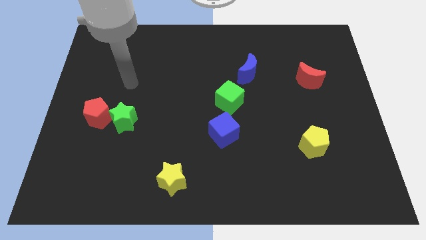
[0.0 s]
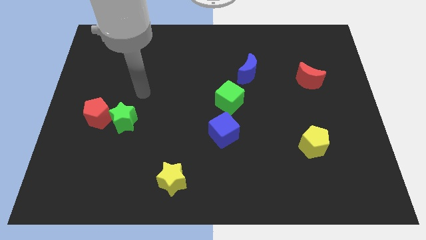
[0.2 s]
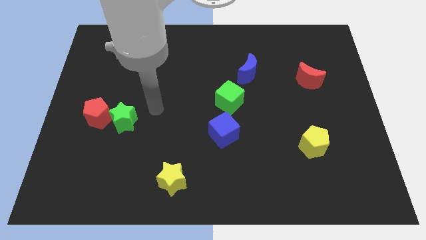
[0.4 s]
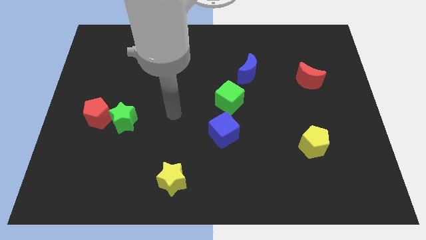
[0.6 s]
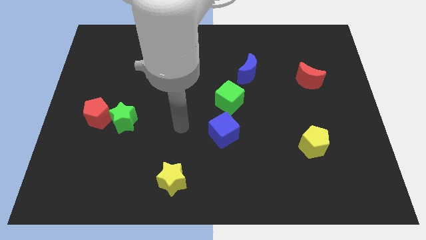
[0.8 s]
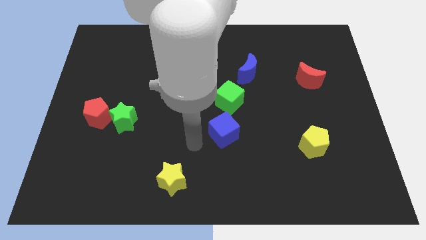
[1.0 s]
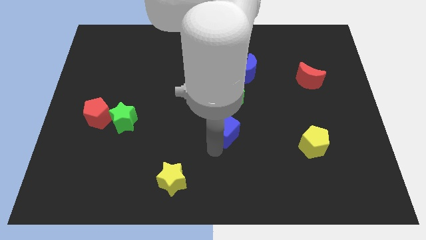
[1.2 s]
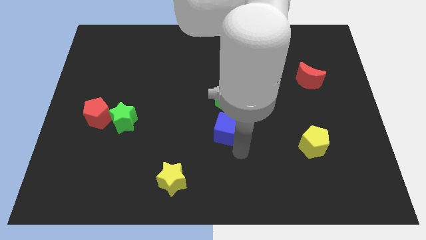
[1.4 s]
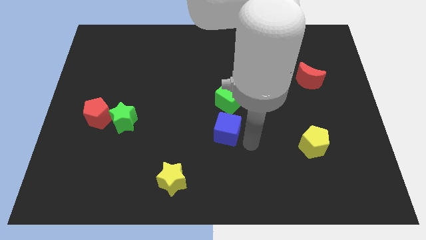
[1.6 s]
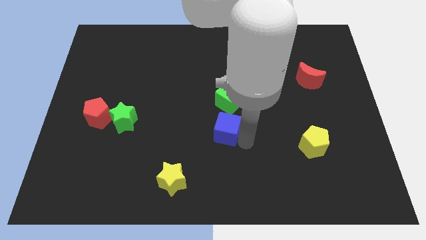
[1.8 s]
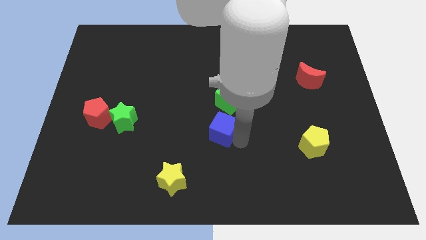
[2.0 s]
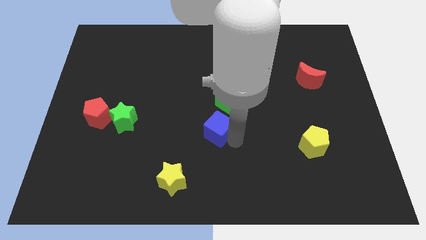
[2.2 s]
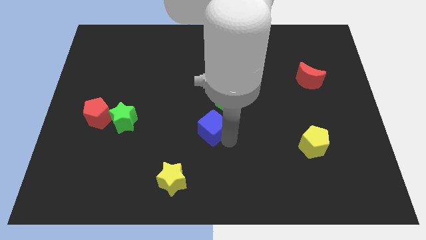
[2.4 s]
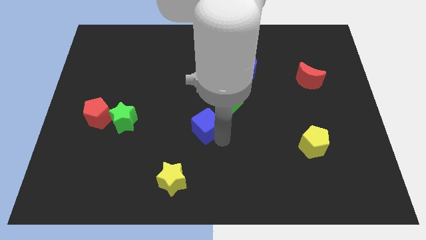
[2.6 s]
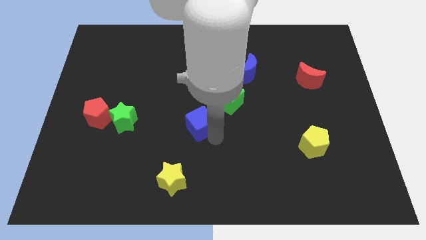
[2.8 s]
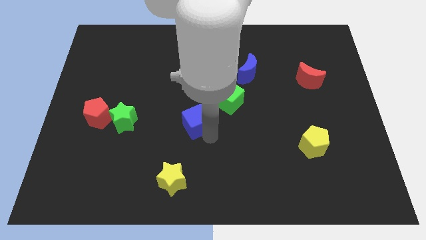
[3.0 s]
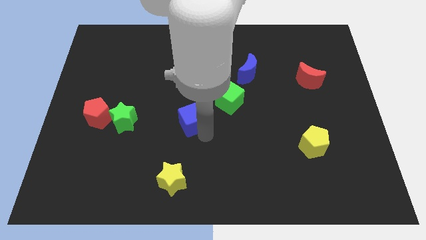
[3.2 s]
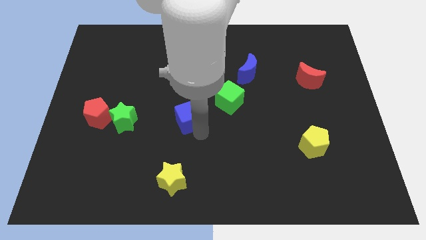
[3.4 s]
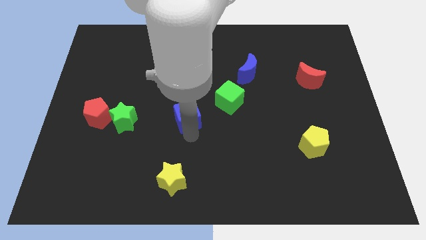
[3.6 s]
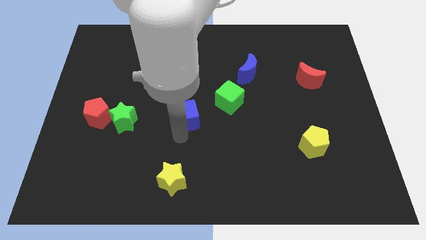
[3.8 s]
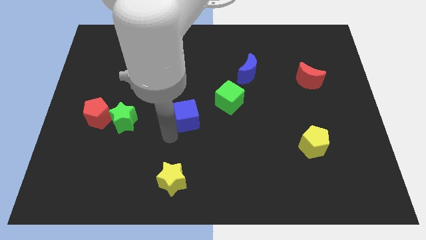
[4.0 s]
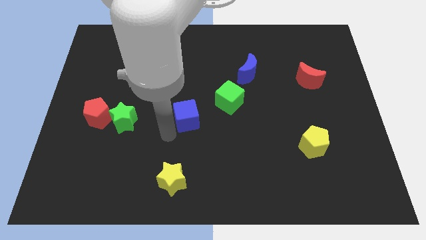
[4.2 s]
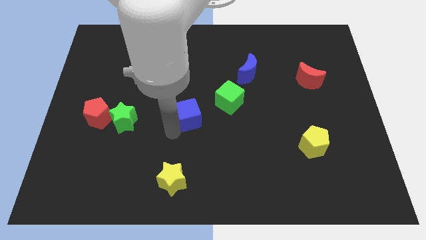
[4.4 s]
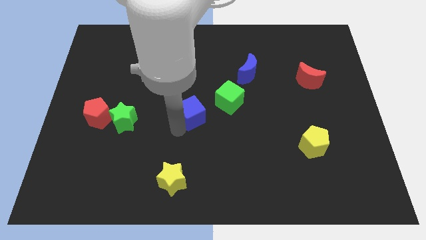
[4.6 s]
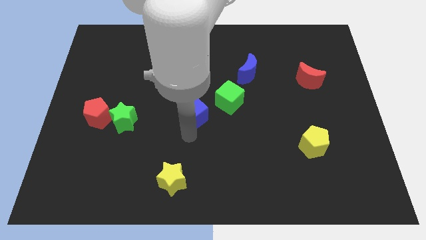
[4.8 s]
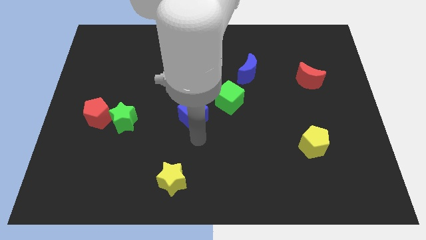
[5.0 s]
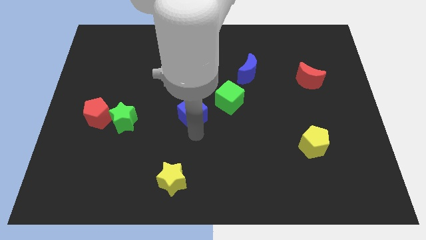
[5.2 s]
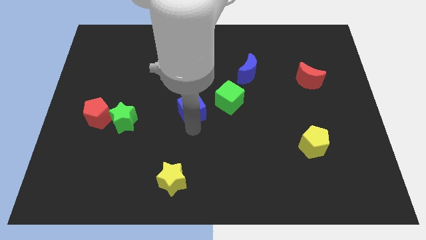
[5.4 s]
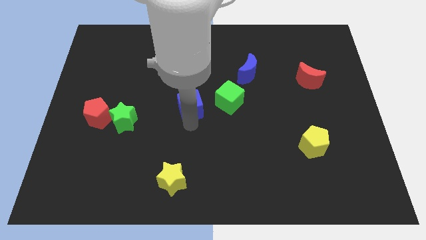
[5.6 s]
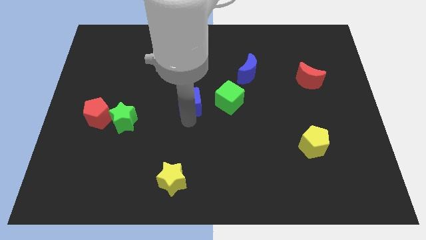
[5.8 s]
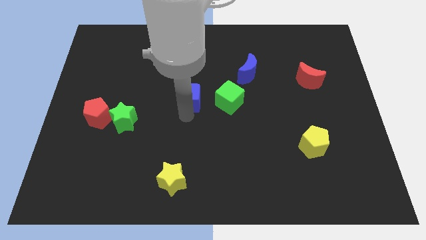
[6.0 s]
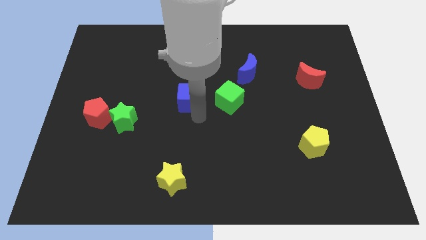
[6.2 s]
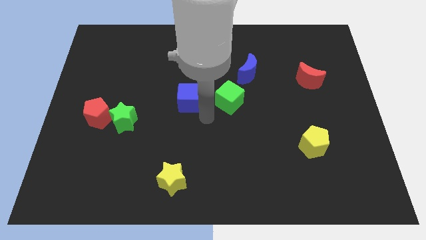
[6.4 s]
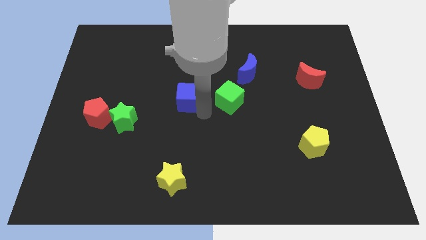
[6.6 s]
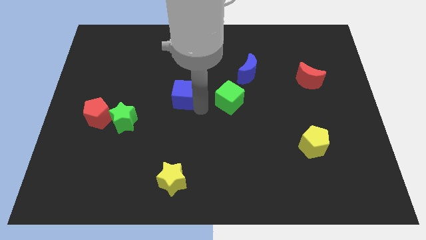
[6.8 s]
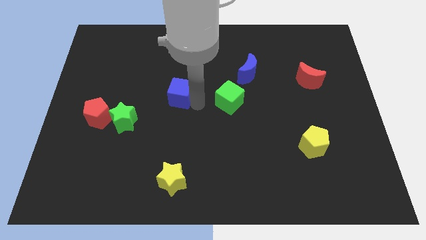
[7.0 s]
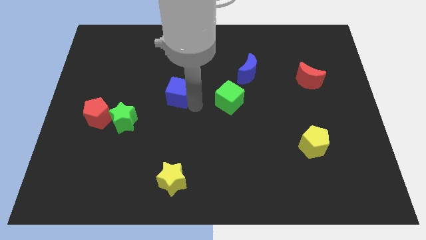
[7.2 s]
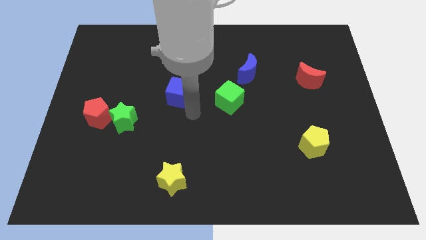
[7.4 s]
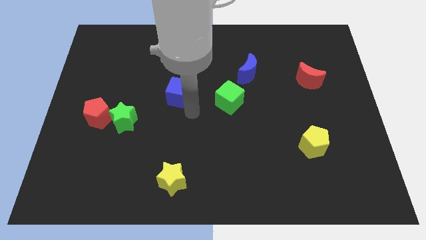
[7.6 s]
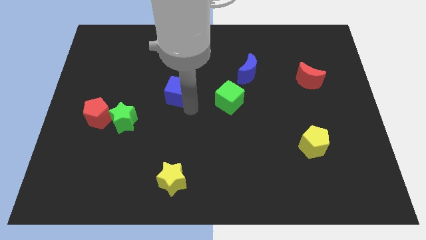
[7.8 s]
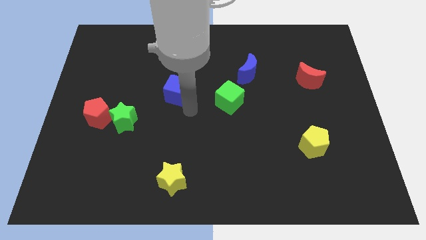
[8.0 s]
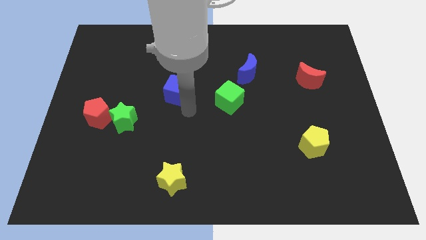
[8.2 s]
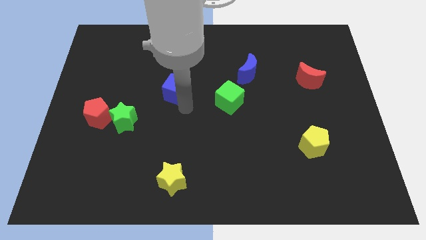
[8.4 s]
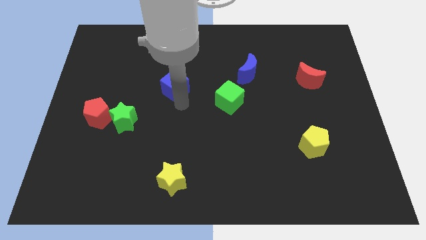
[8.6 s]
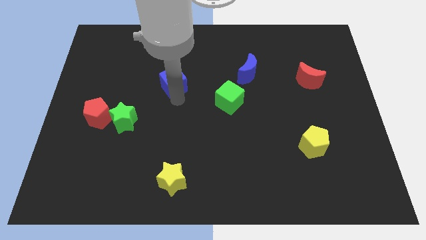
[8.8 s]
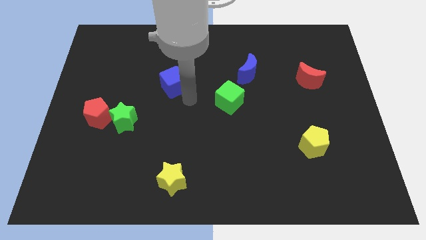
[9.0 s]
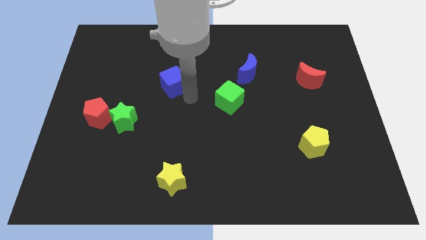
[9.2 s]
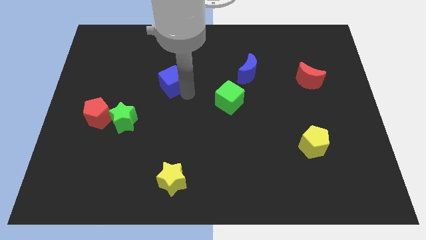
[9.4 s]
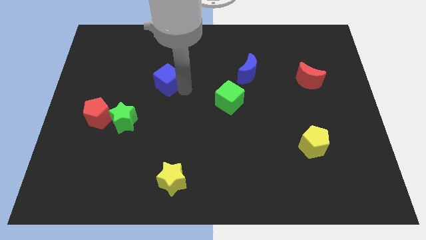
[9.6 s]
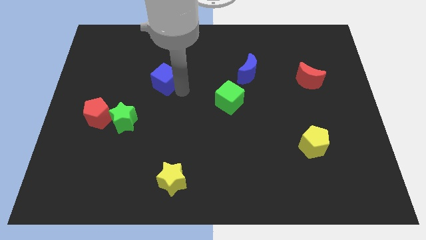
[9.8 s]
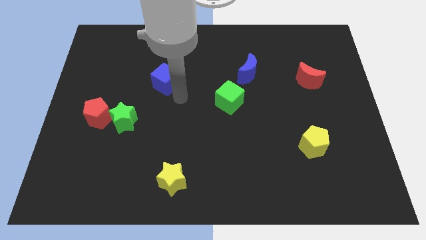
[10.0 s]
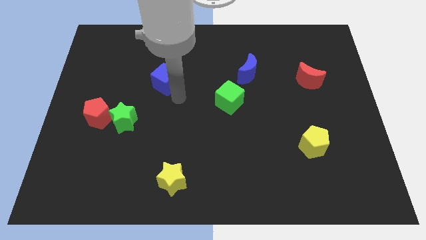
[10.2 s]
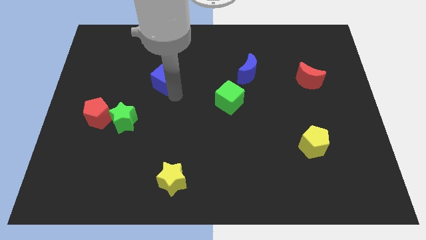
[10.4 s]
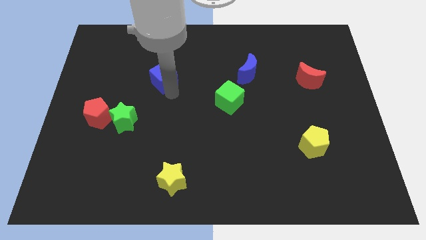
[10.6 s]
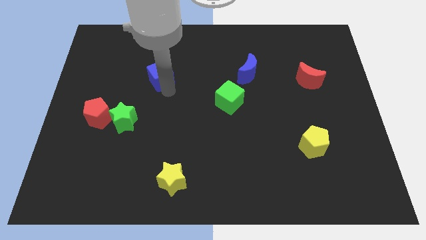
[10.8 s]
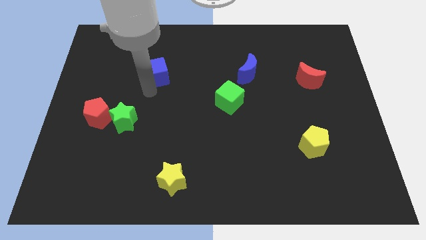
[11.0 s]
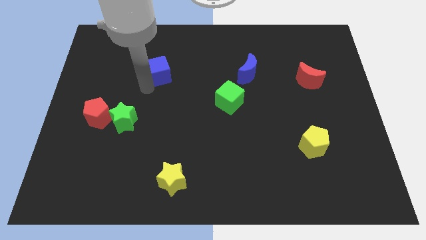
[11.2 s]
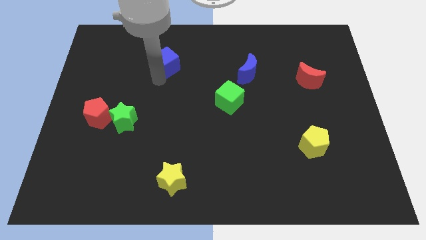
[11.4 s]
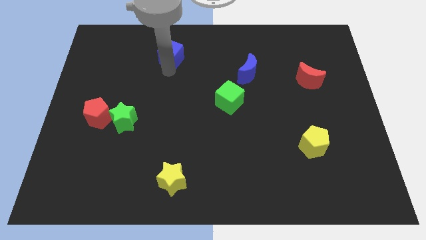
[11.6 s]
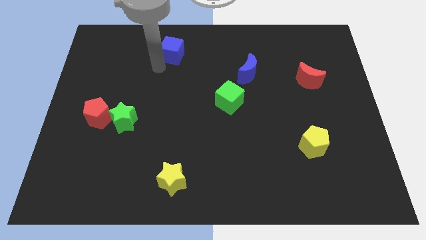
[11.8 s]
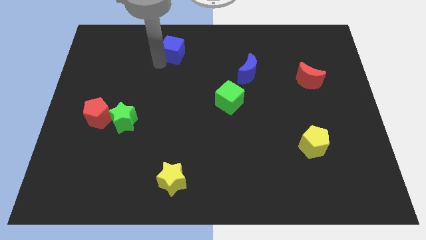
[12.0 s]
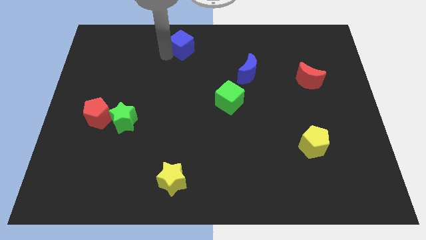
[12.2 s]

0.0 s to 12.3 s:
put the blue cube to the top side

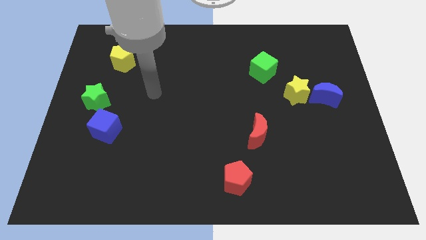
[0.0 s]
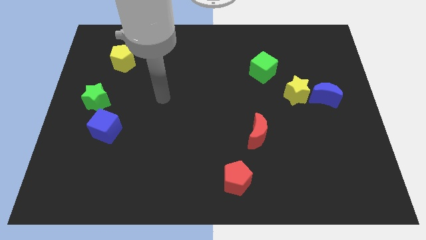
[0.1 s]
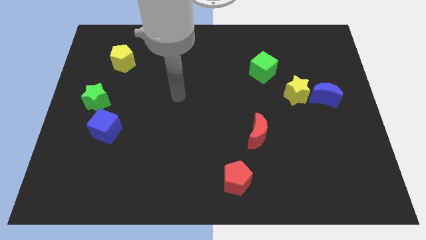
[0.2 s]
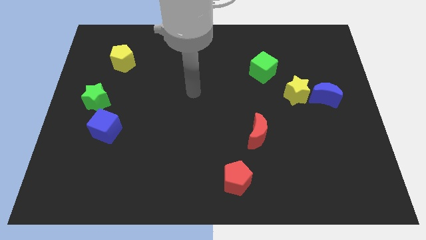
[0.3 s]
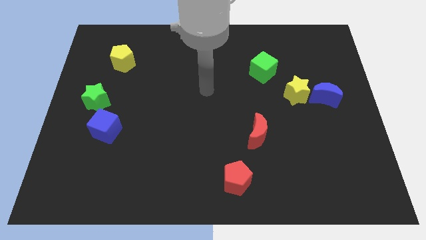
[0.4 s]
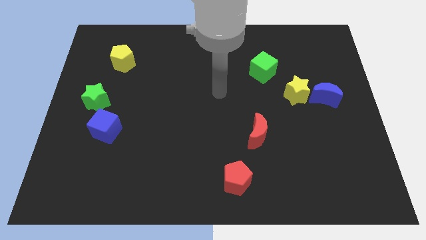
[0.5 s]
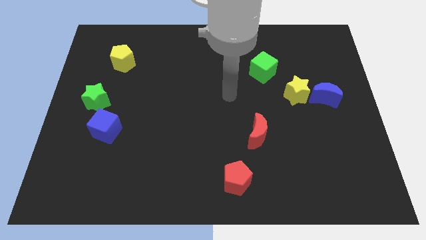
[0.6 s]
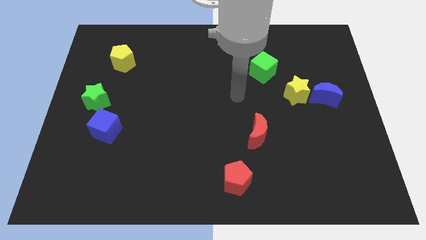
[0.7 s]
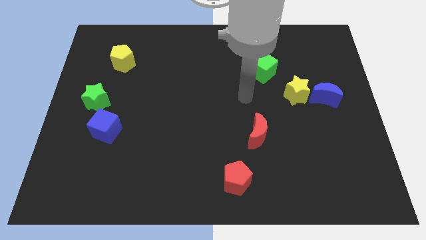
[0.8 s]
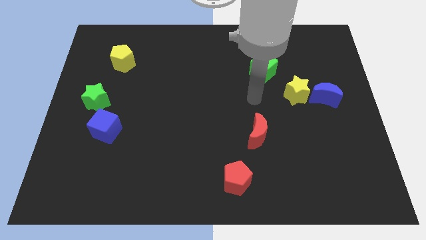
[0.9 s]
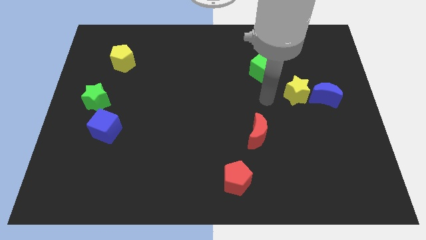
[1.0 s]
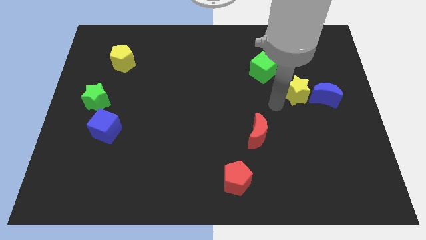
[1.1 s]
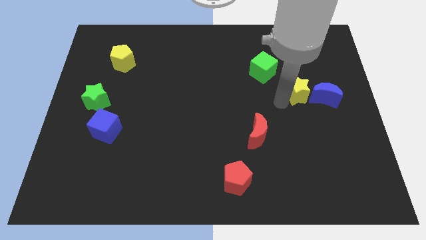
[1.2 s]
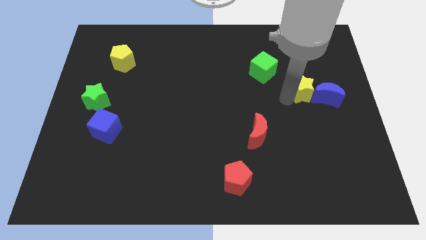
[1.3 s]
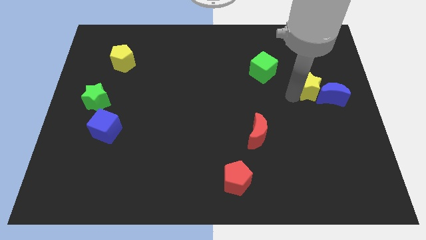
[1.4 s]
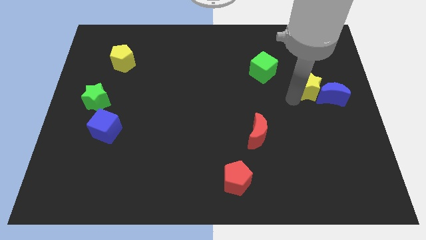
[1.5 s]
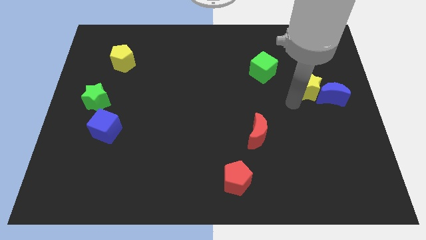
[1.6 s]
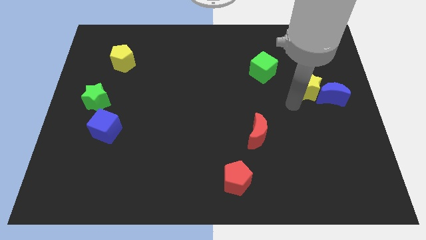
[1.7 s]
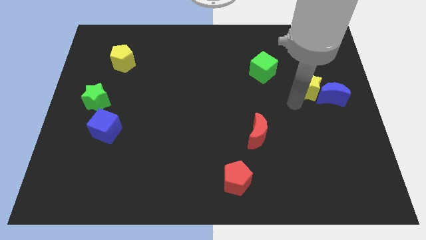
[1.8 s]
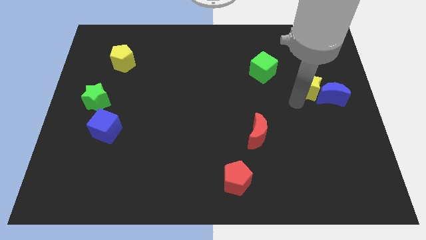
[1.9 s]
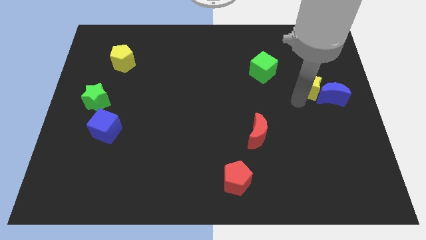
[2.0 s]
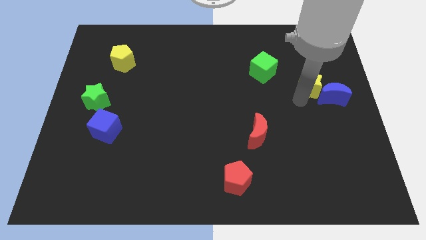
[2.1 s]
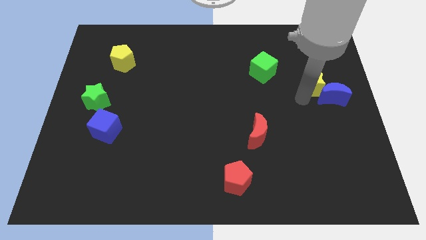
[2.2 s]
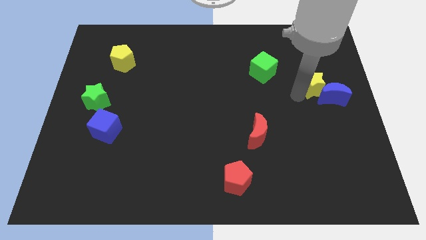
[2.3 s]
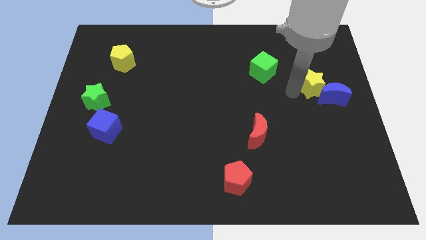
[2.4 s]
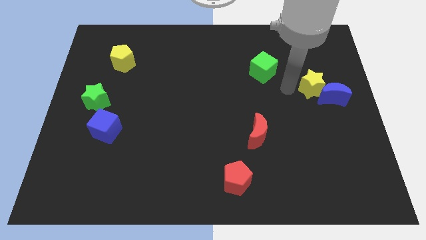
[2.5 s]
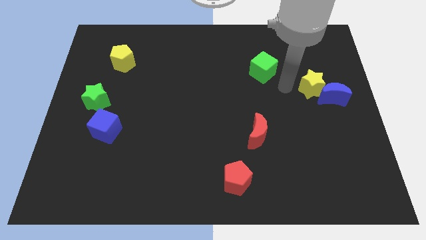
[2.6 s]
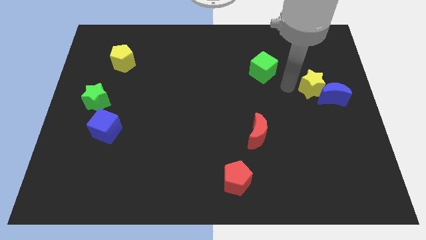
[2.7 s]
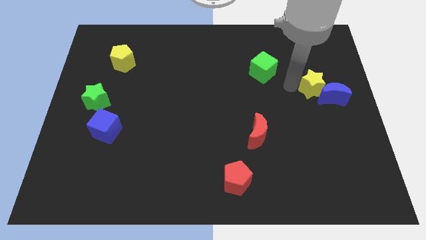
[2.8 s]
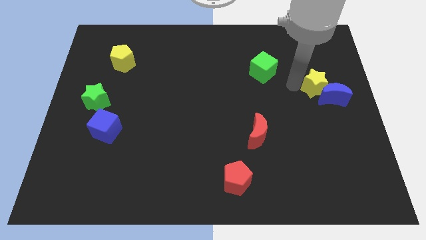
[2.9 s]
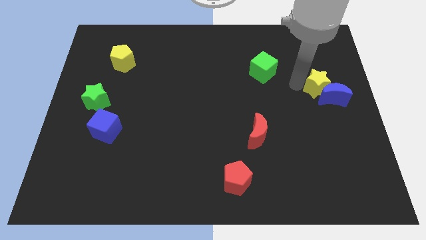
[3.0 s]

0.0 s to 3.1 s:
move the yellow star to the center right
